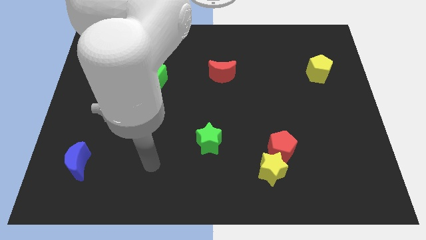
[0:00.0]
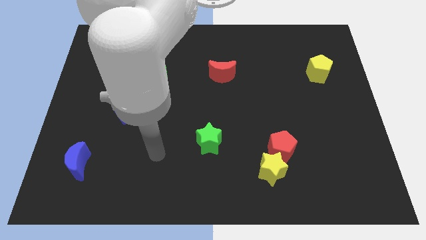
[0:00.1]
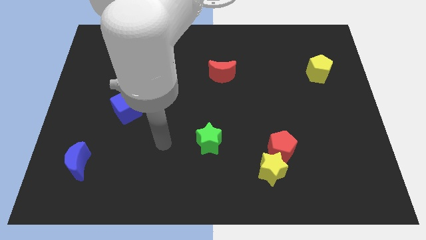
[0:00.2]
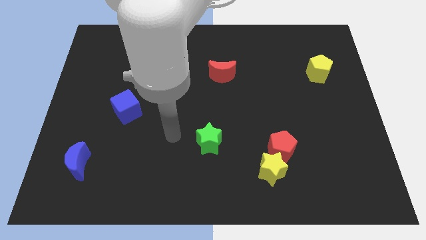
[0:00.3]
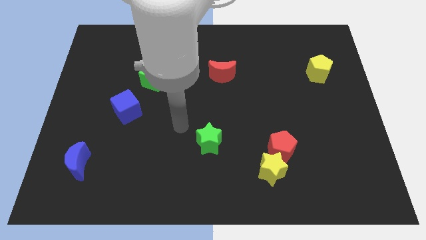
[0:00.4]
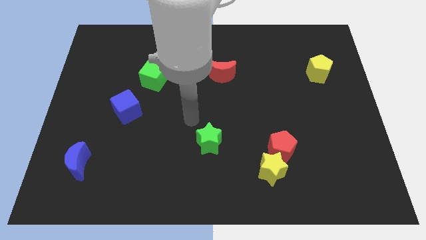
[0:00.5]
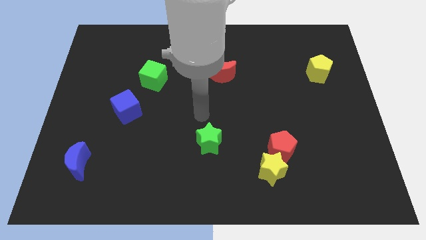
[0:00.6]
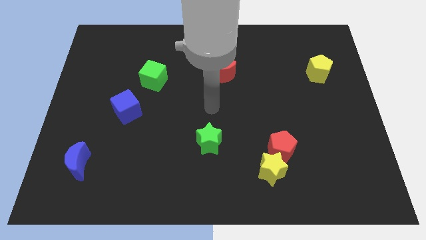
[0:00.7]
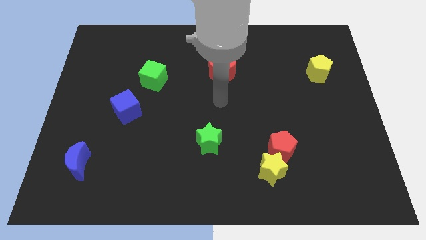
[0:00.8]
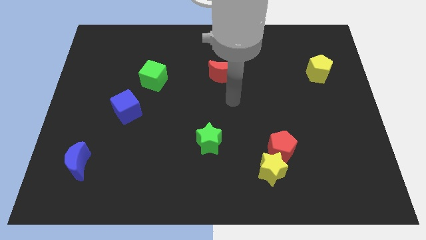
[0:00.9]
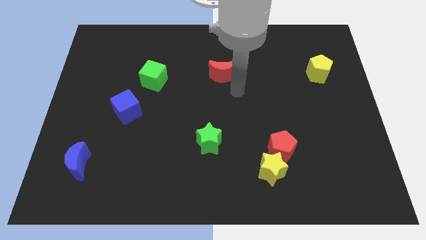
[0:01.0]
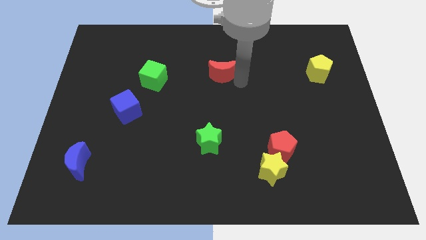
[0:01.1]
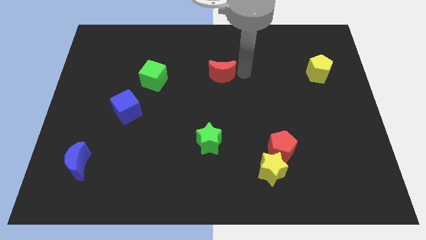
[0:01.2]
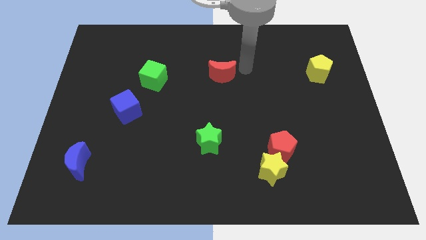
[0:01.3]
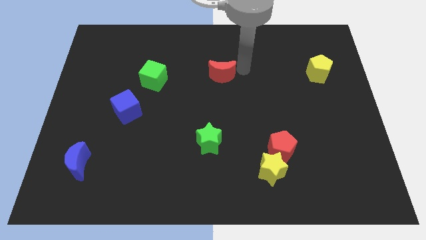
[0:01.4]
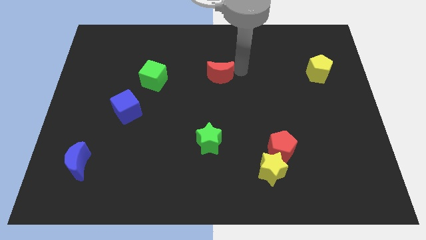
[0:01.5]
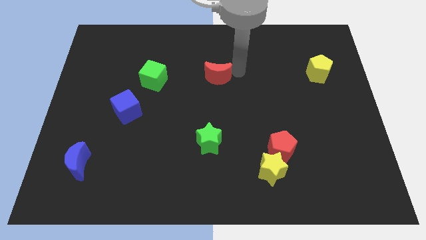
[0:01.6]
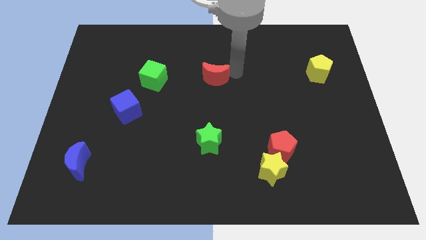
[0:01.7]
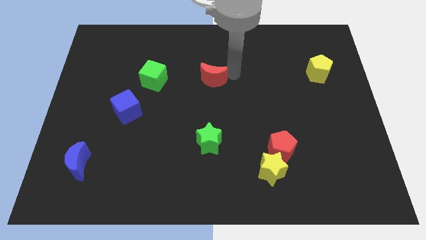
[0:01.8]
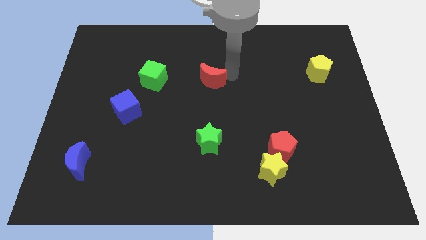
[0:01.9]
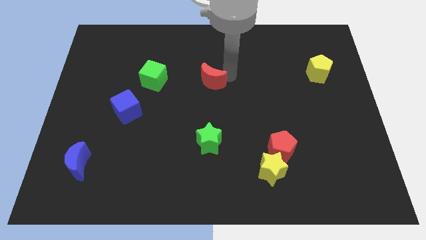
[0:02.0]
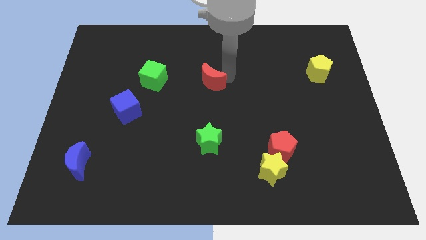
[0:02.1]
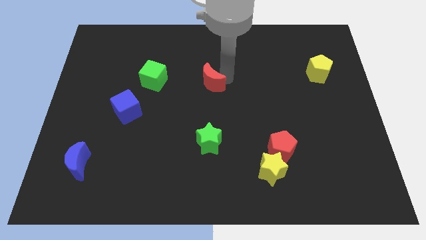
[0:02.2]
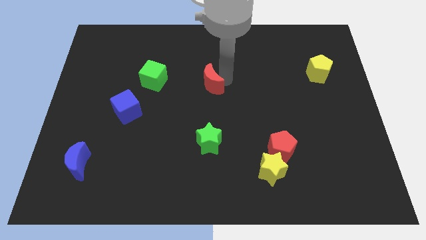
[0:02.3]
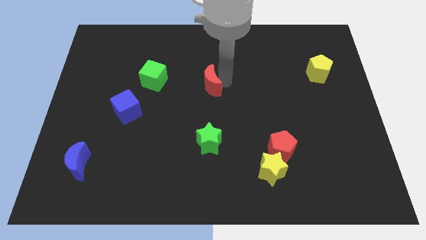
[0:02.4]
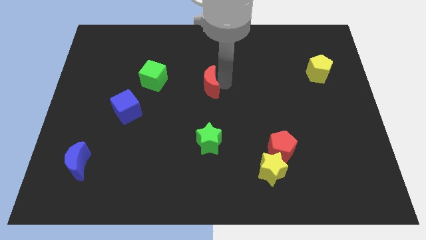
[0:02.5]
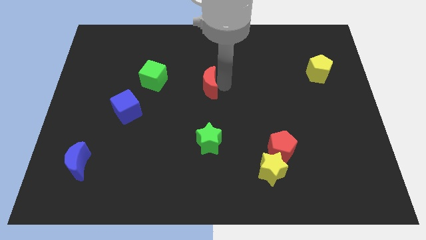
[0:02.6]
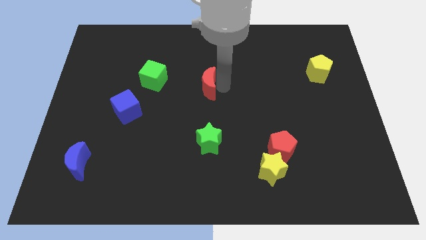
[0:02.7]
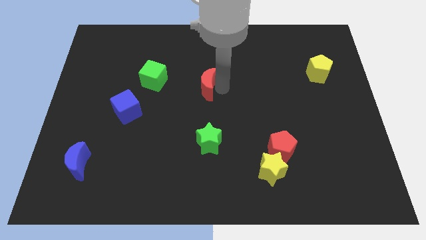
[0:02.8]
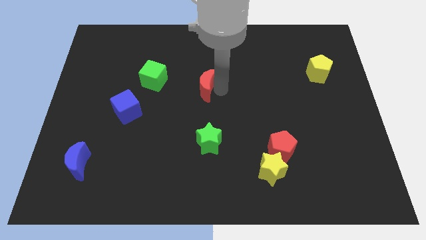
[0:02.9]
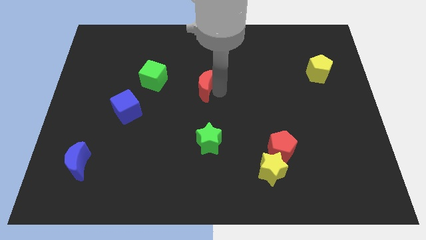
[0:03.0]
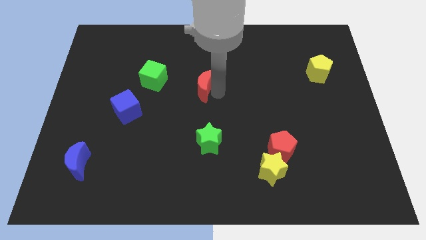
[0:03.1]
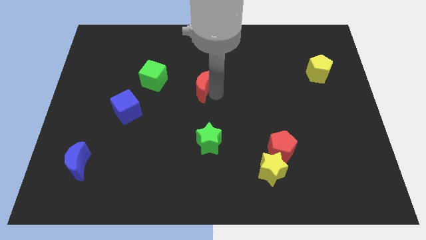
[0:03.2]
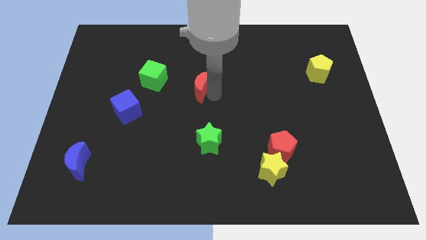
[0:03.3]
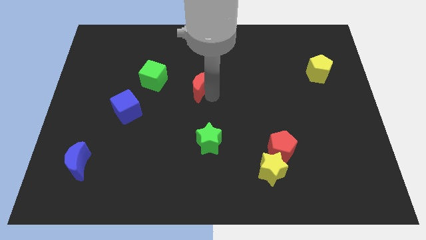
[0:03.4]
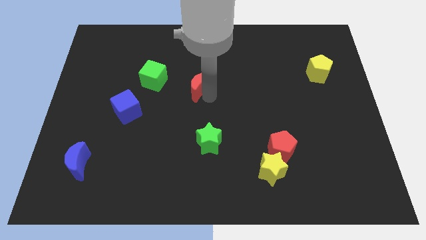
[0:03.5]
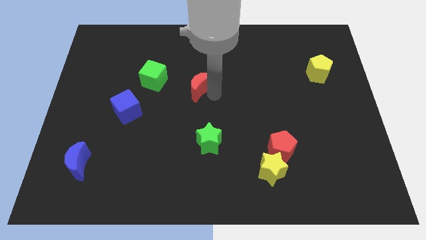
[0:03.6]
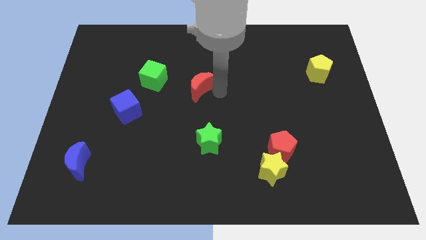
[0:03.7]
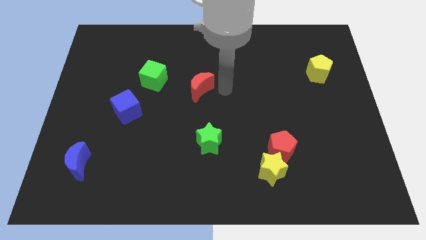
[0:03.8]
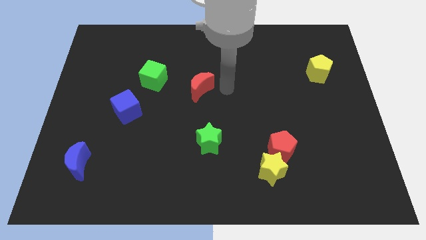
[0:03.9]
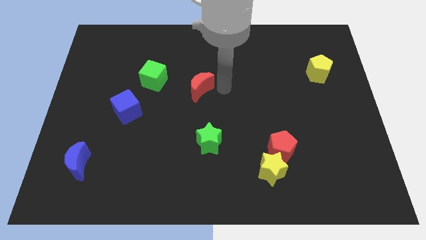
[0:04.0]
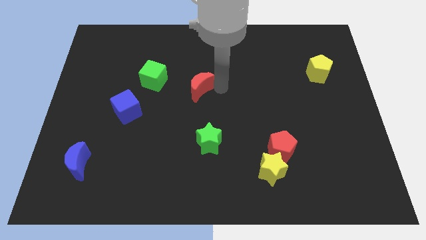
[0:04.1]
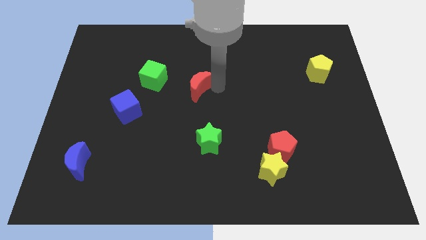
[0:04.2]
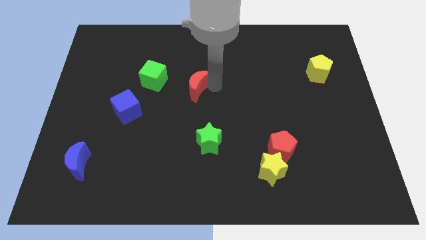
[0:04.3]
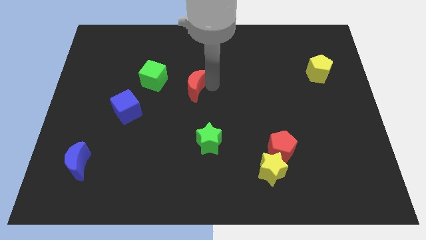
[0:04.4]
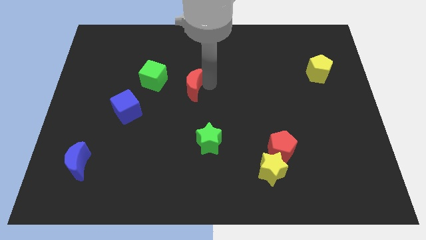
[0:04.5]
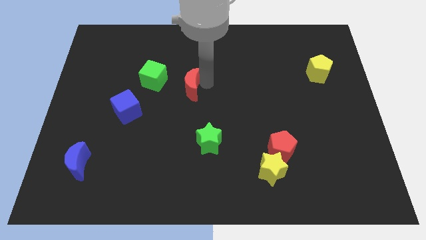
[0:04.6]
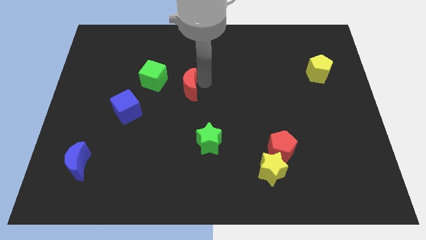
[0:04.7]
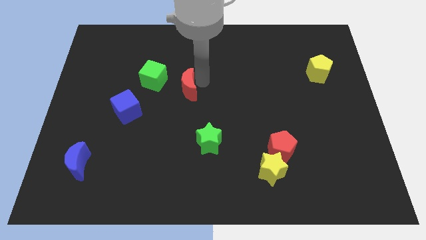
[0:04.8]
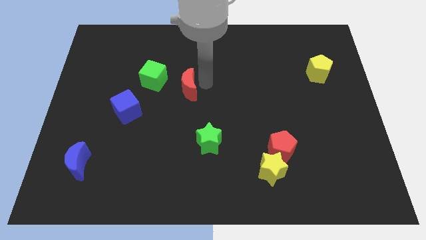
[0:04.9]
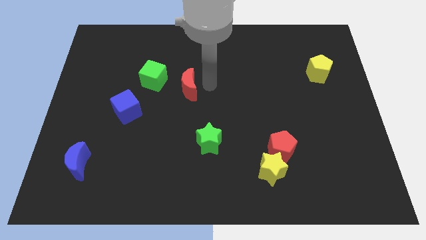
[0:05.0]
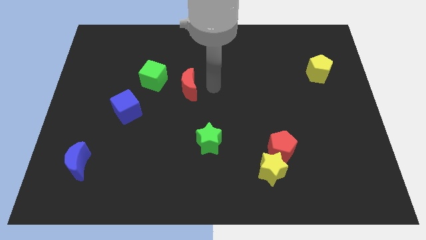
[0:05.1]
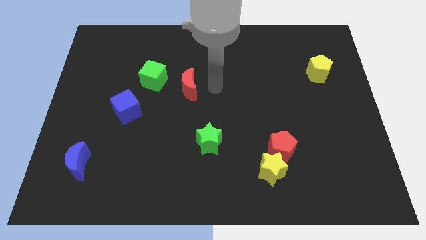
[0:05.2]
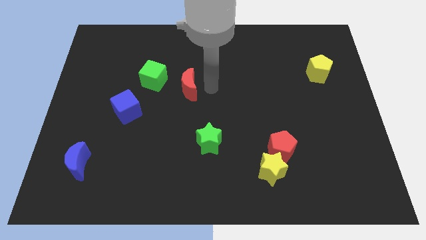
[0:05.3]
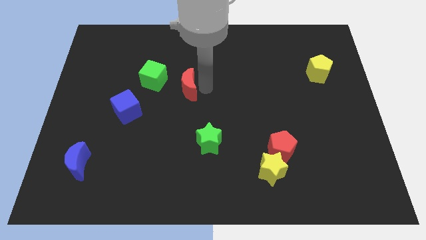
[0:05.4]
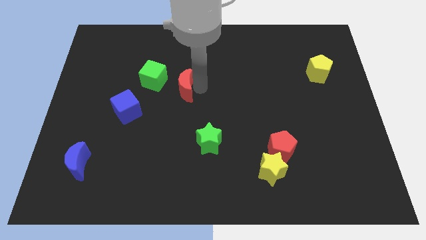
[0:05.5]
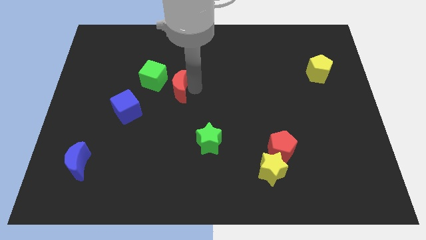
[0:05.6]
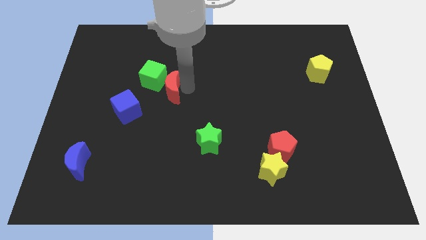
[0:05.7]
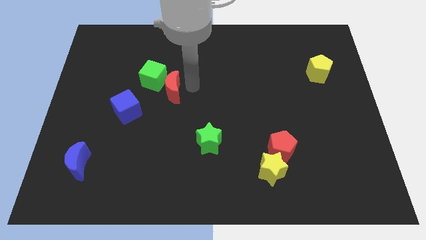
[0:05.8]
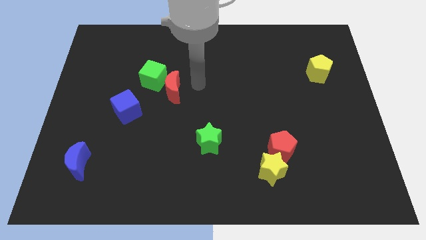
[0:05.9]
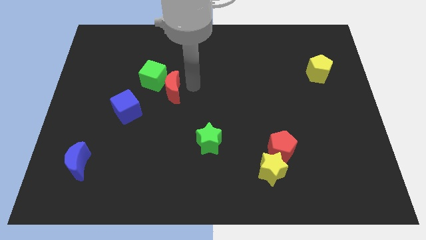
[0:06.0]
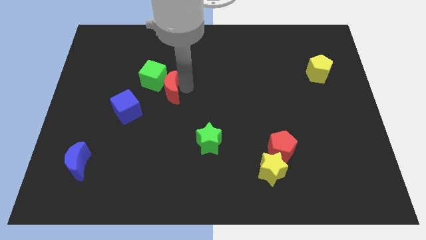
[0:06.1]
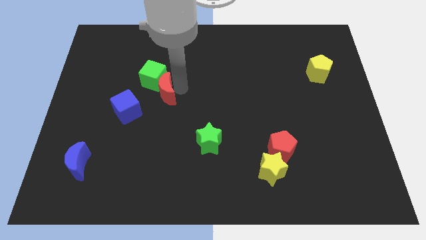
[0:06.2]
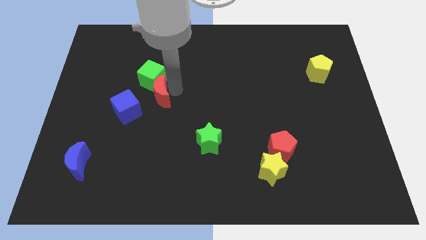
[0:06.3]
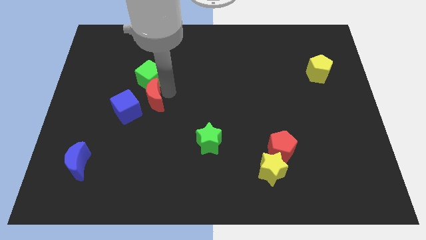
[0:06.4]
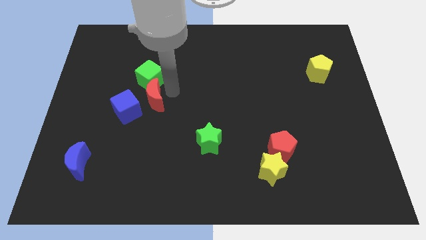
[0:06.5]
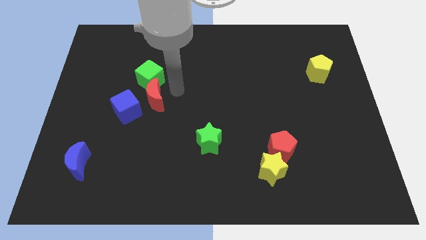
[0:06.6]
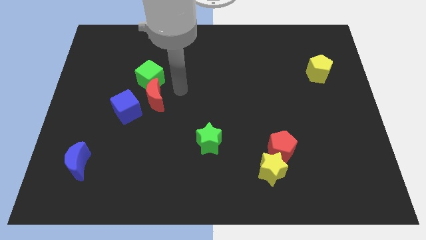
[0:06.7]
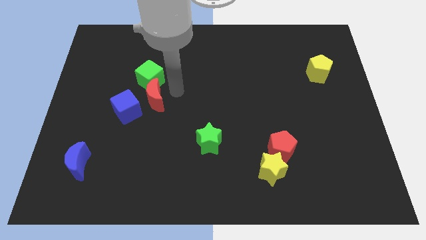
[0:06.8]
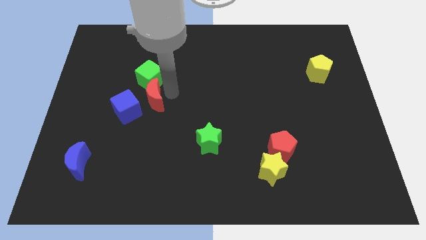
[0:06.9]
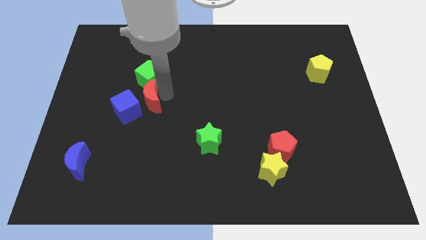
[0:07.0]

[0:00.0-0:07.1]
move the red moon next to the blue cube
